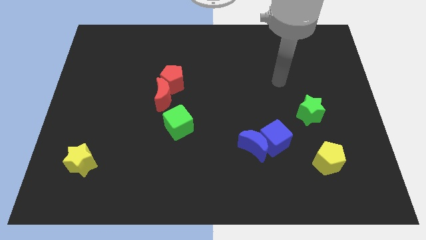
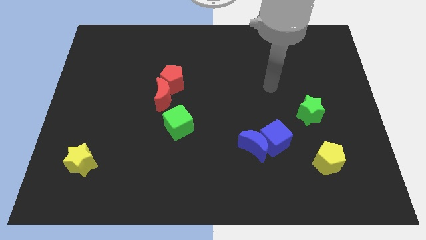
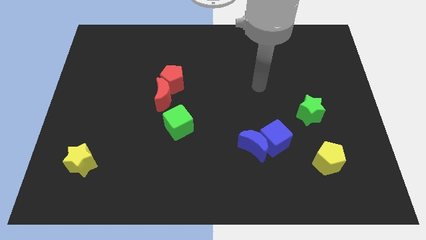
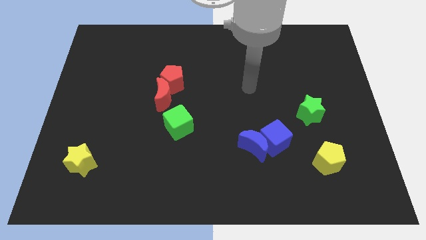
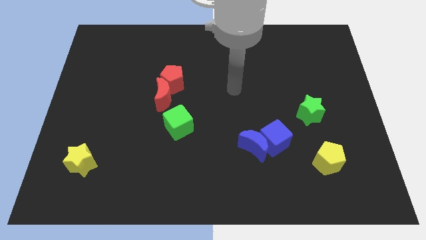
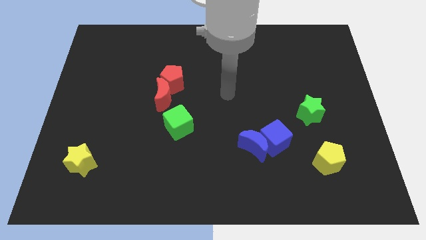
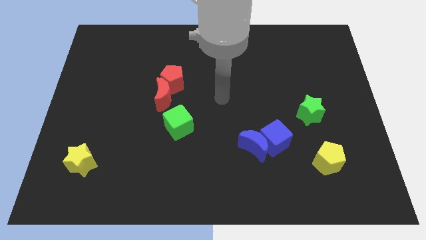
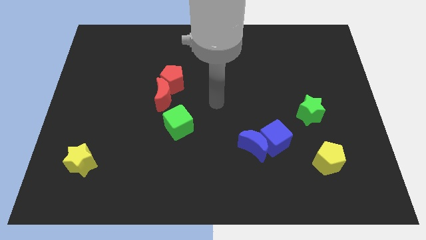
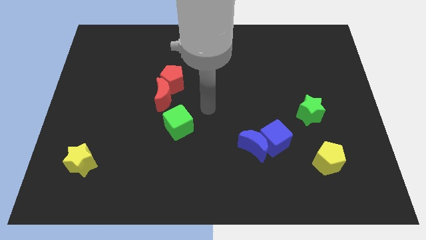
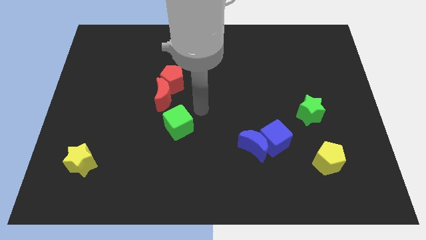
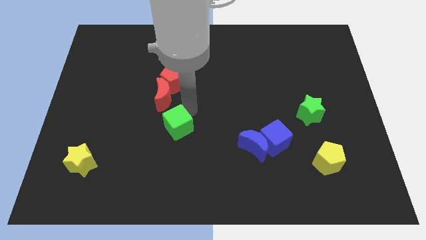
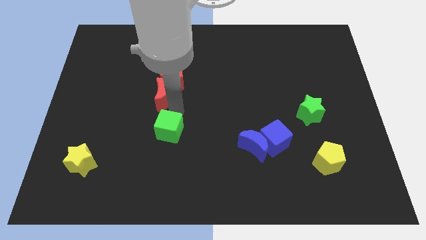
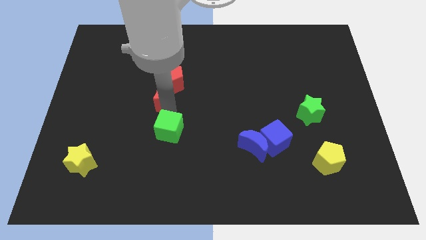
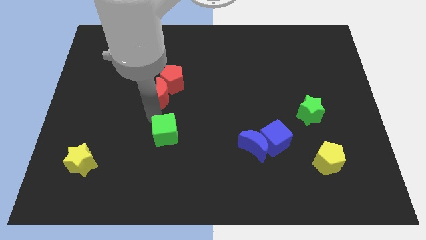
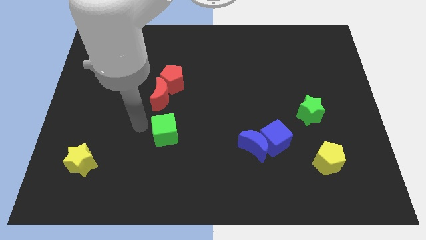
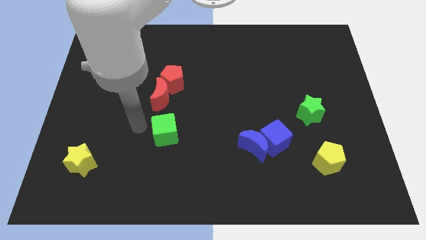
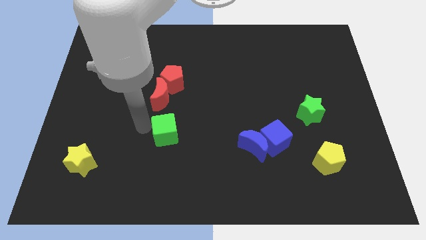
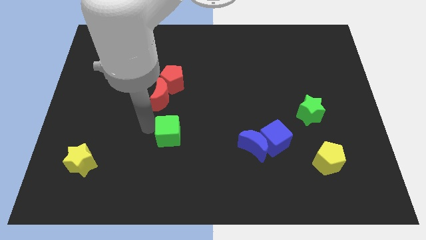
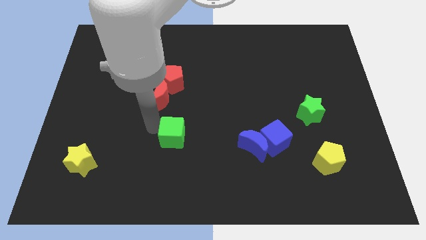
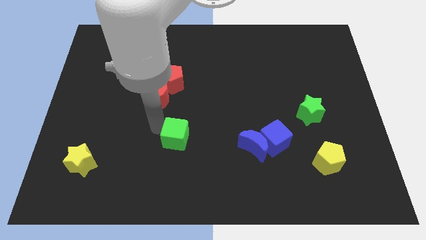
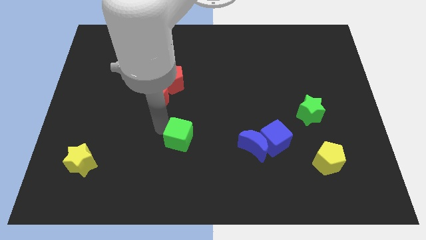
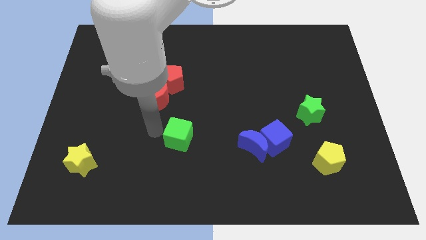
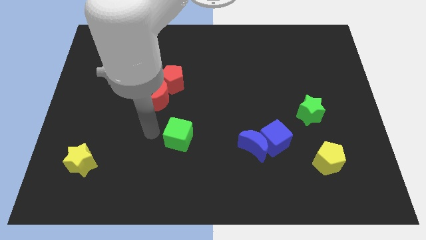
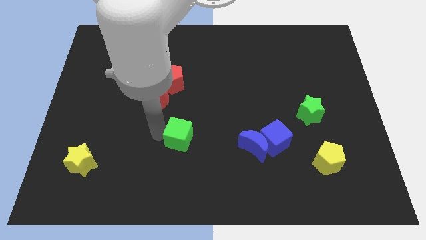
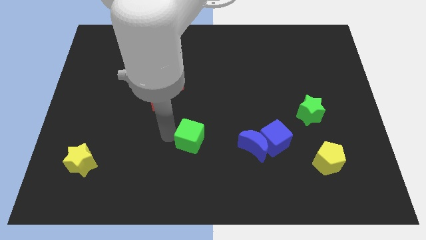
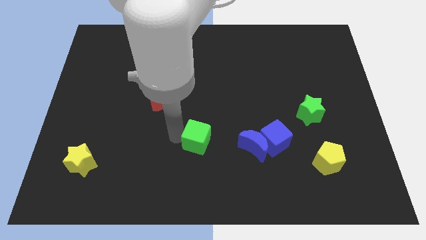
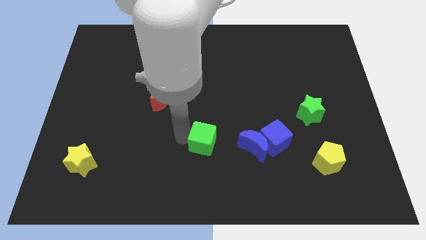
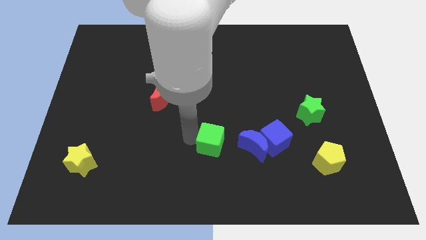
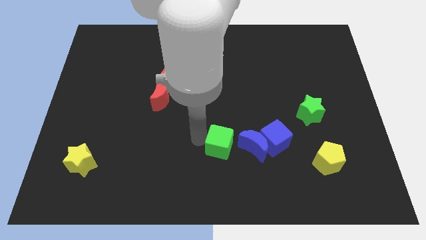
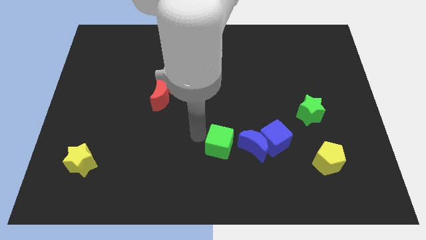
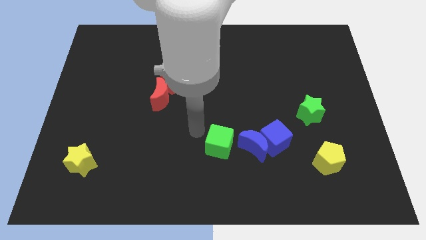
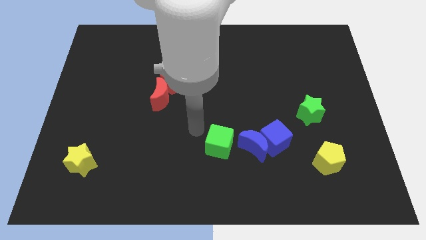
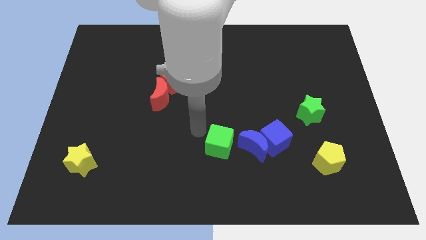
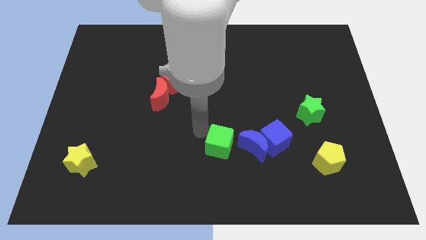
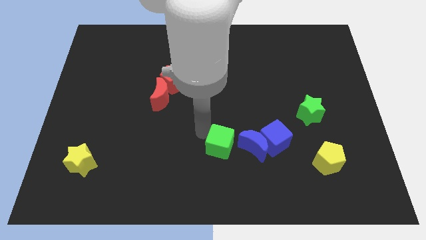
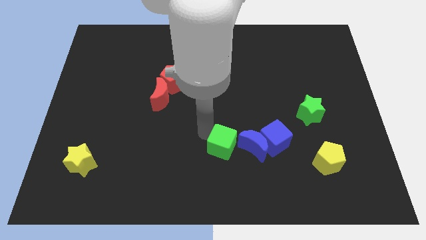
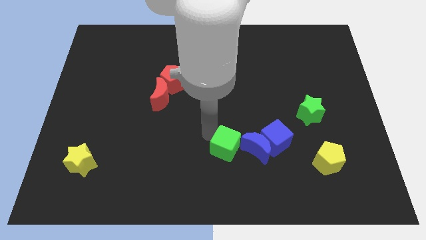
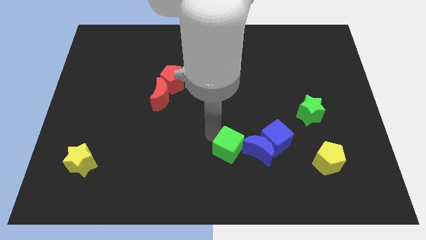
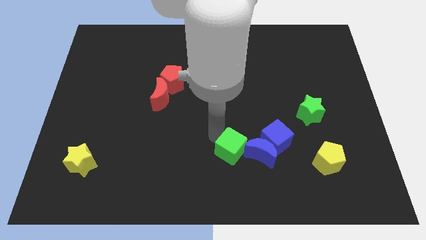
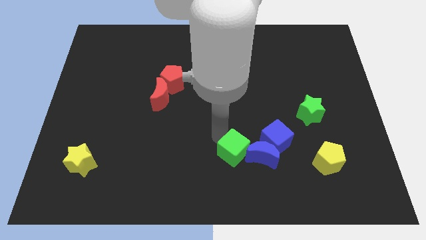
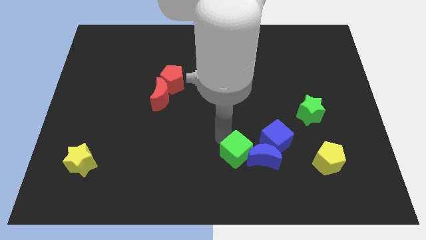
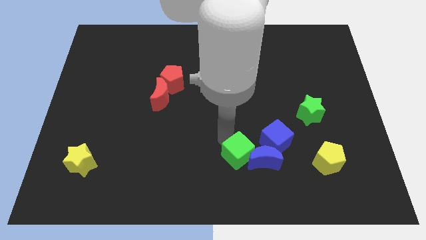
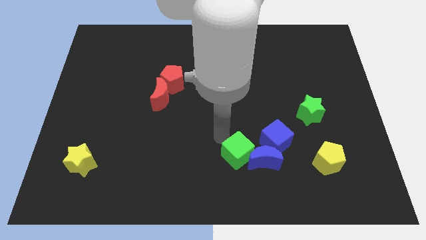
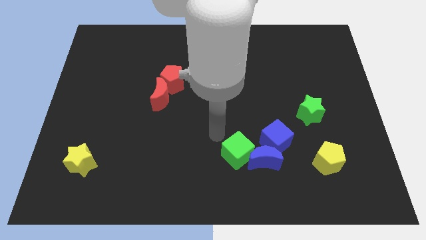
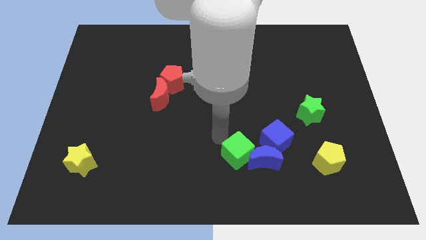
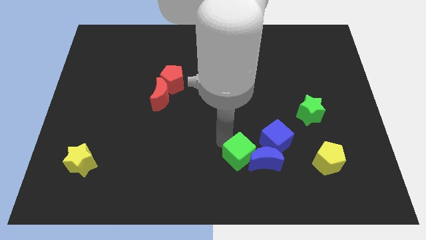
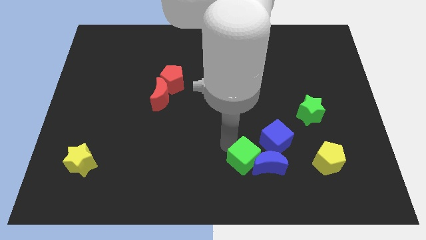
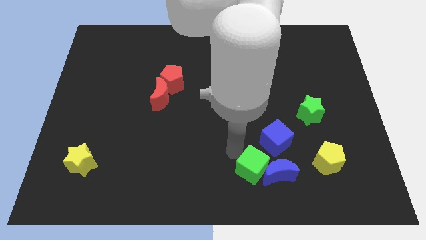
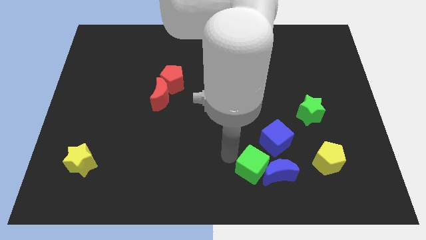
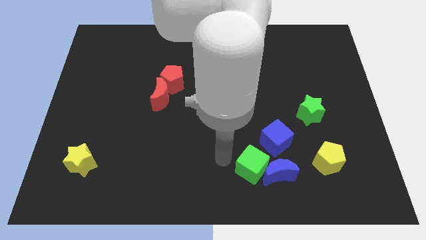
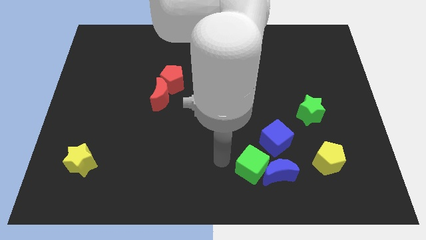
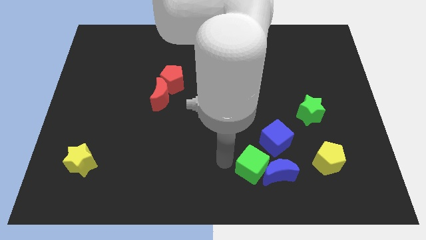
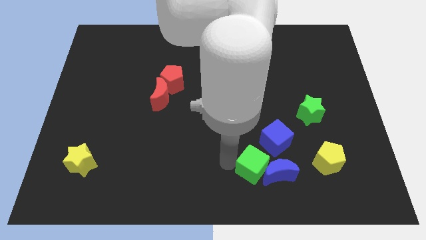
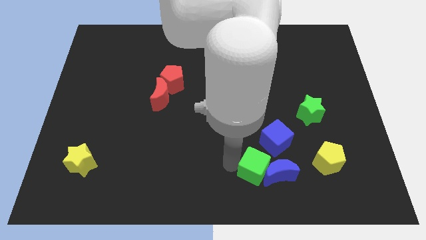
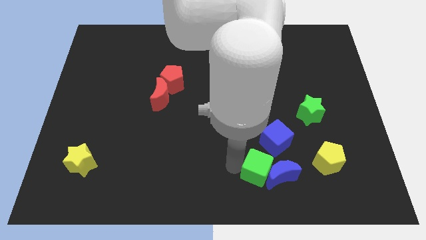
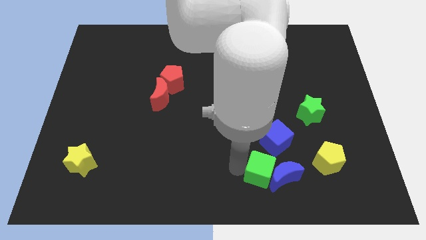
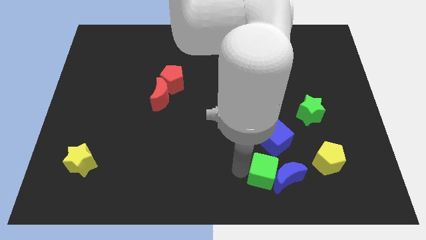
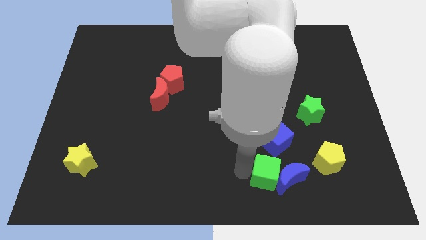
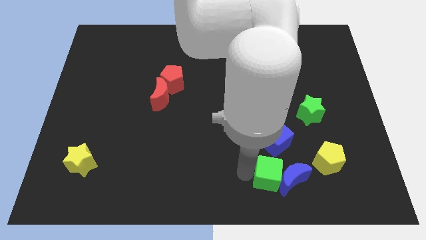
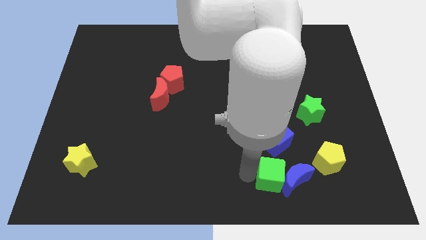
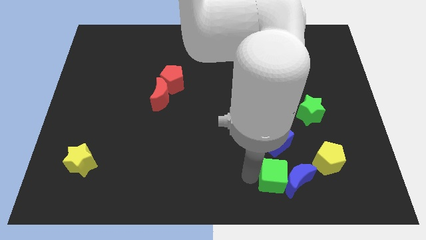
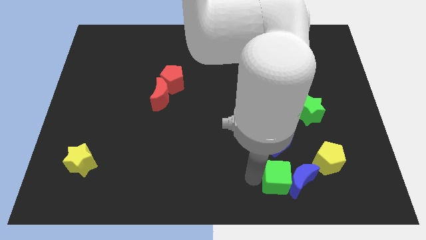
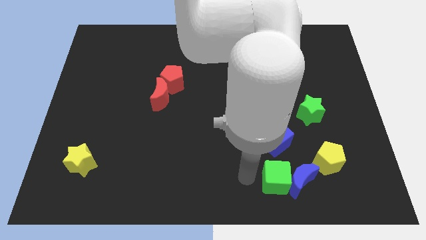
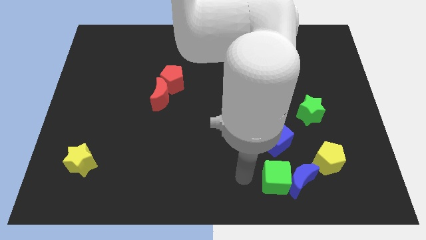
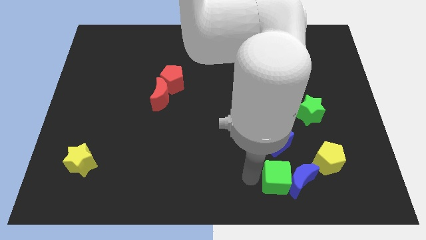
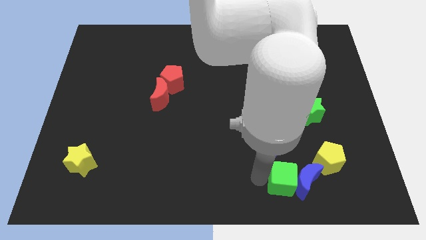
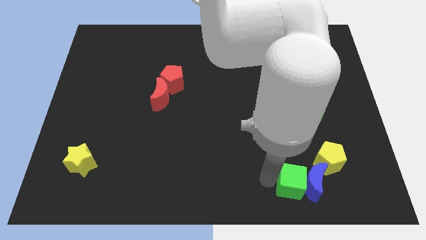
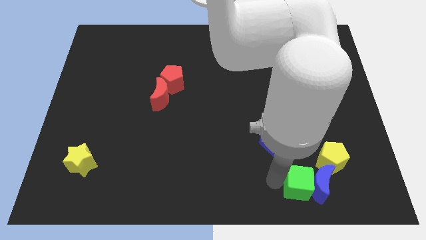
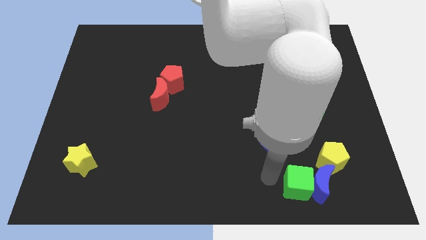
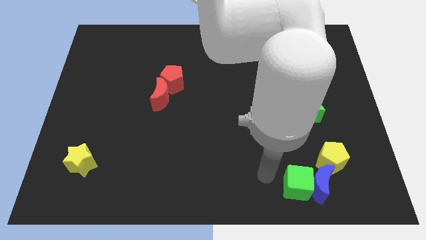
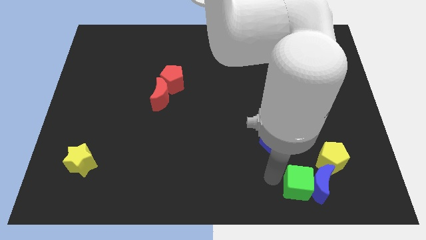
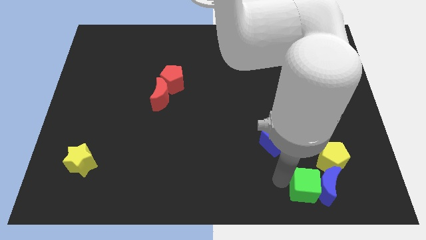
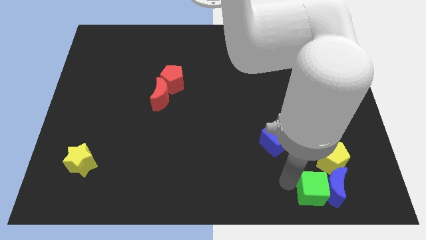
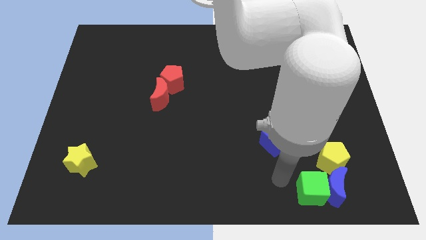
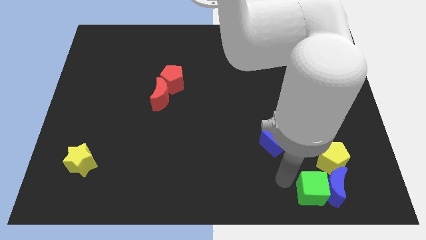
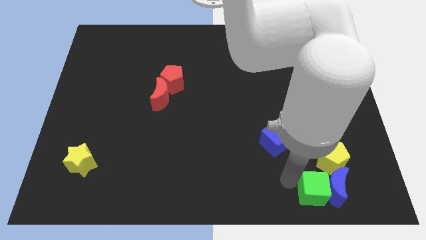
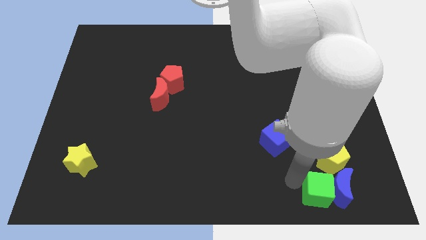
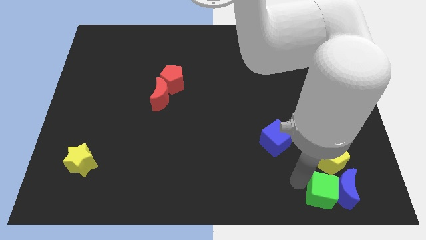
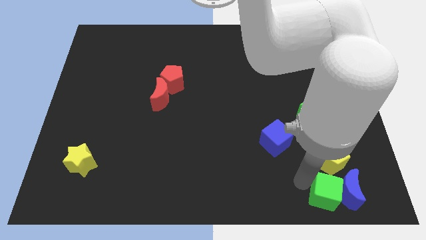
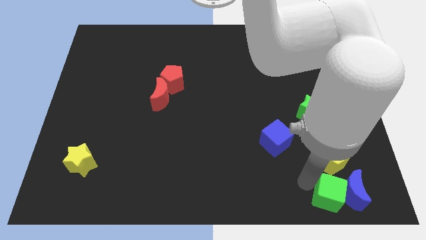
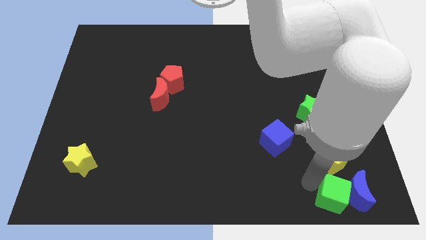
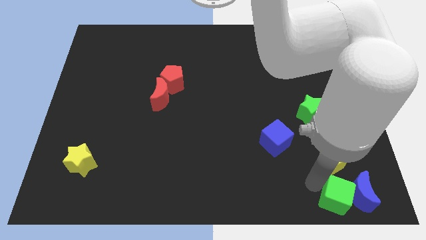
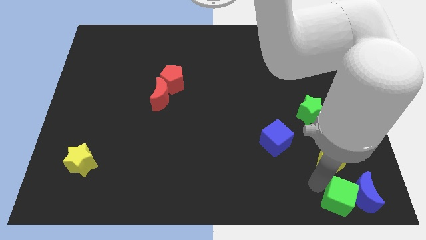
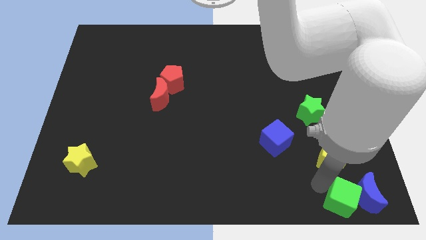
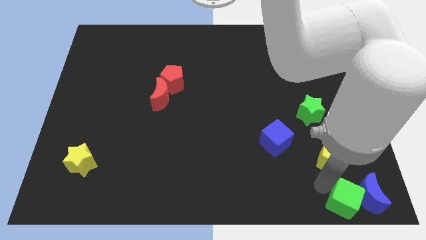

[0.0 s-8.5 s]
slide the green cube to the bottom right of the board
